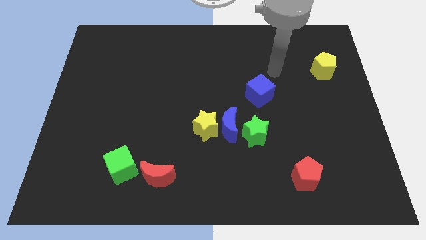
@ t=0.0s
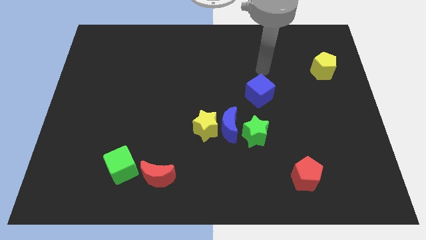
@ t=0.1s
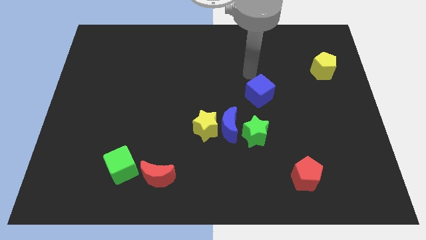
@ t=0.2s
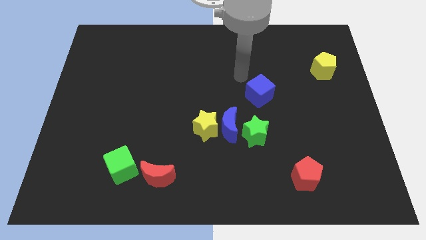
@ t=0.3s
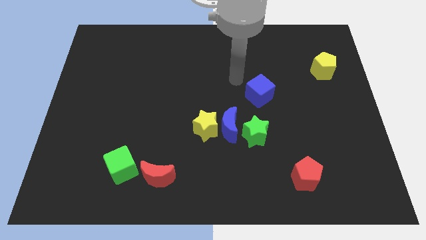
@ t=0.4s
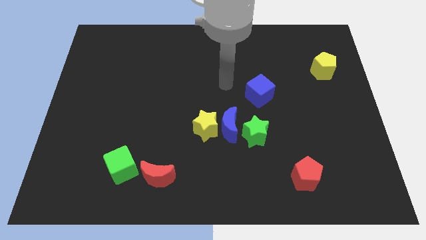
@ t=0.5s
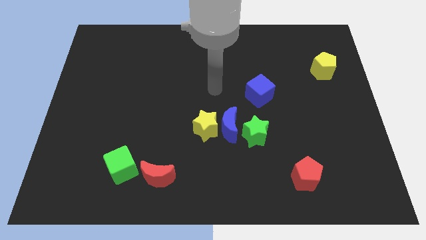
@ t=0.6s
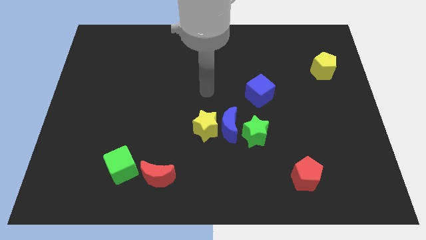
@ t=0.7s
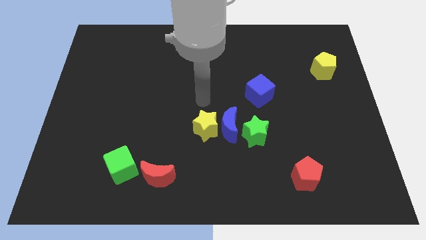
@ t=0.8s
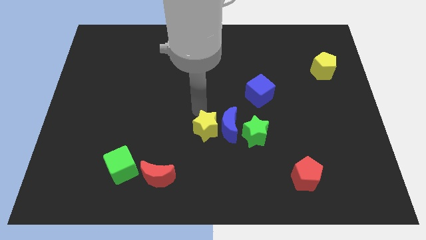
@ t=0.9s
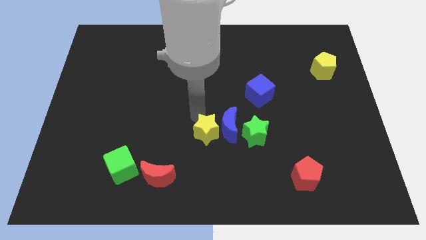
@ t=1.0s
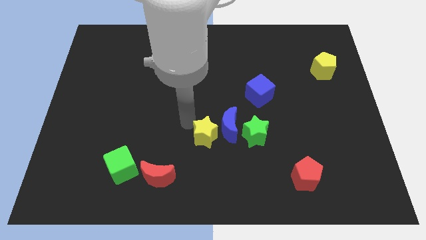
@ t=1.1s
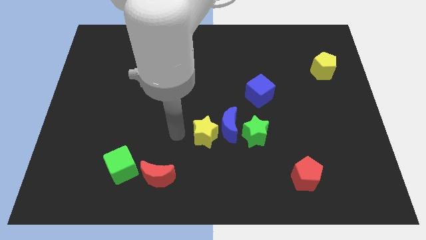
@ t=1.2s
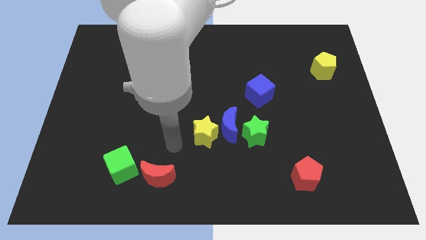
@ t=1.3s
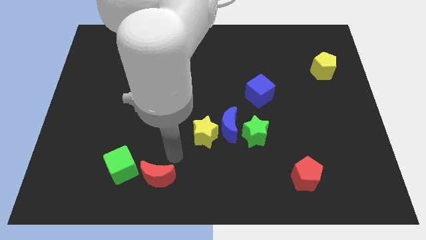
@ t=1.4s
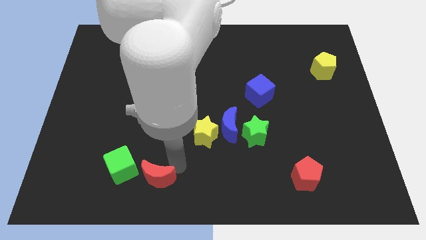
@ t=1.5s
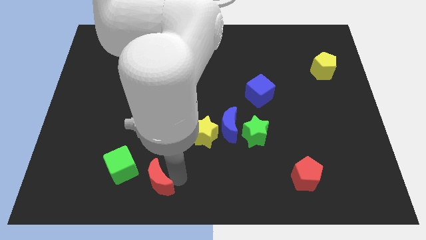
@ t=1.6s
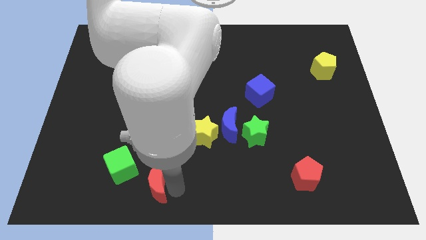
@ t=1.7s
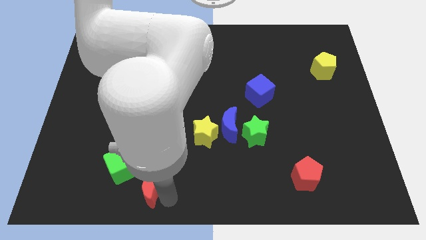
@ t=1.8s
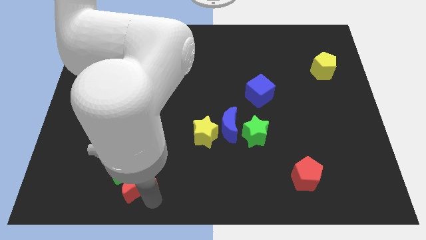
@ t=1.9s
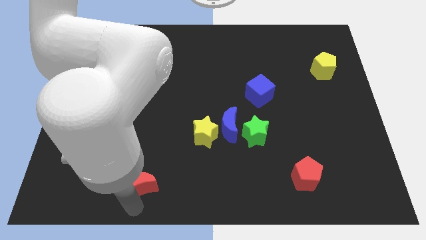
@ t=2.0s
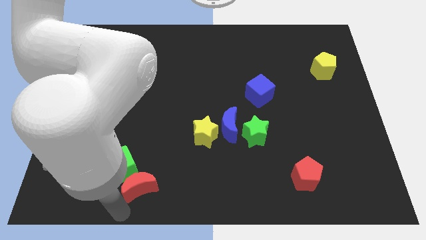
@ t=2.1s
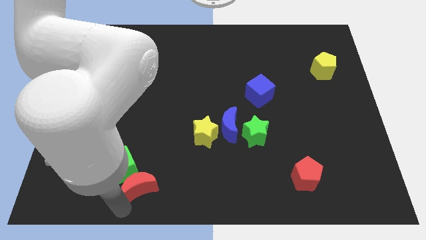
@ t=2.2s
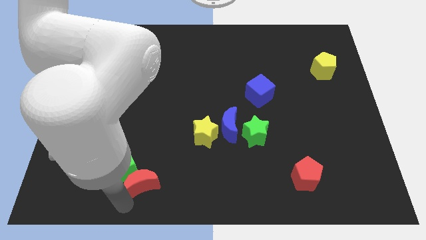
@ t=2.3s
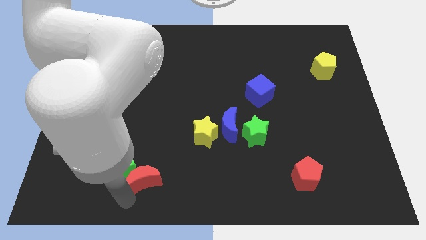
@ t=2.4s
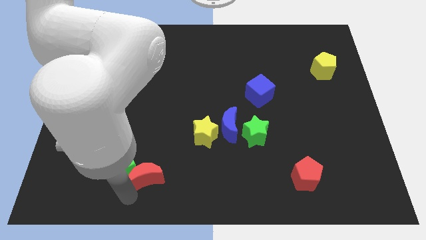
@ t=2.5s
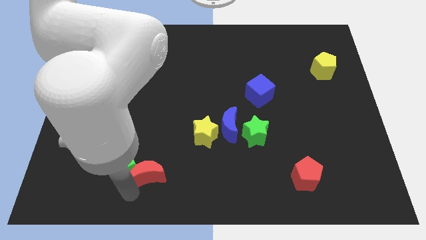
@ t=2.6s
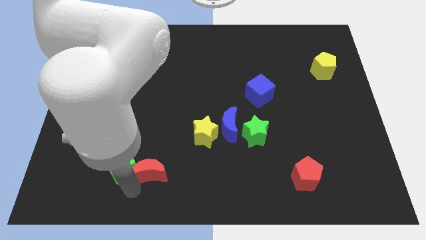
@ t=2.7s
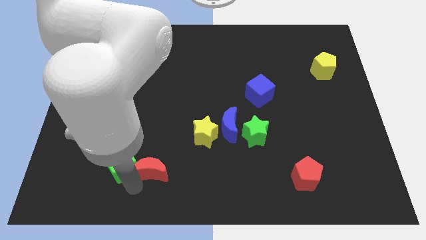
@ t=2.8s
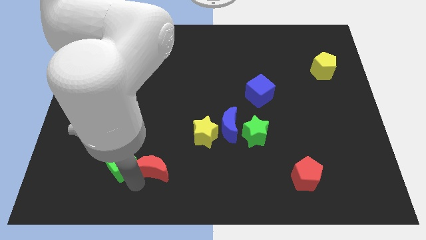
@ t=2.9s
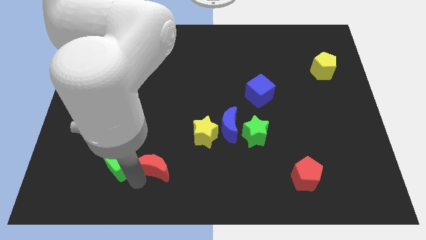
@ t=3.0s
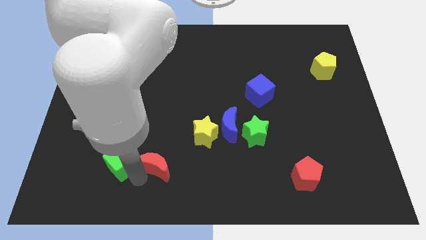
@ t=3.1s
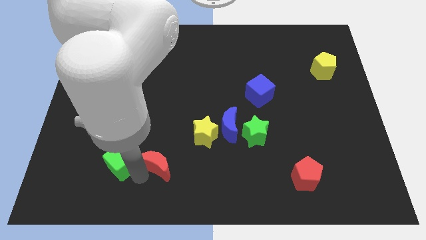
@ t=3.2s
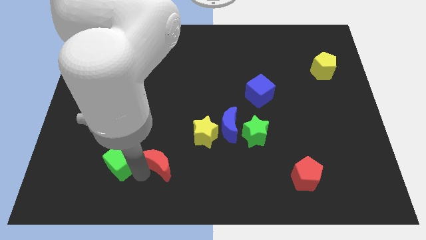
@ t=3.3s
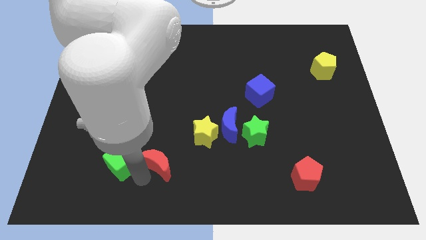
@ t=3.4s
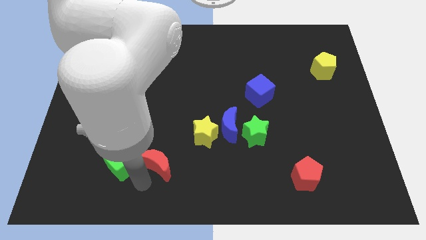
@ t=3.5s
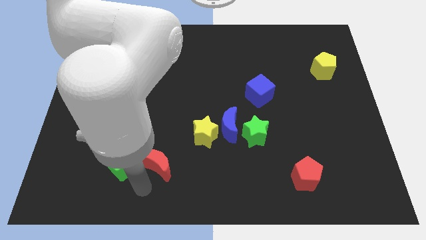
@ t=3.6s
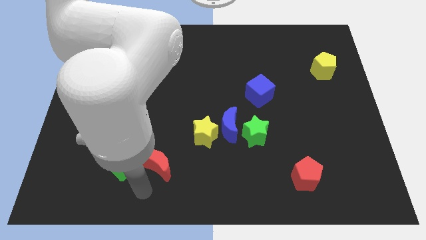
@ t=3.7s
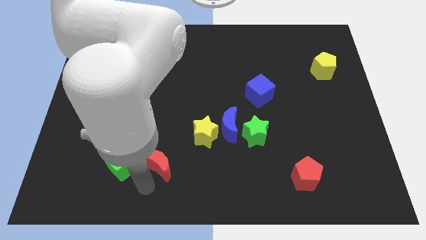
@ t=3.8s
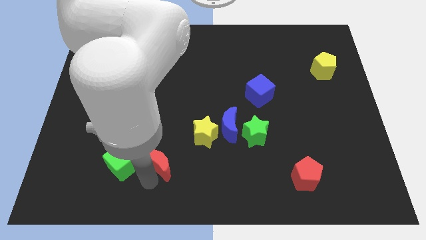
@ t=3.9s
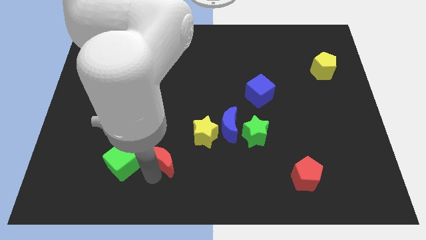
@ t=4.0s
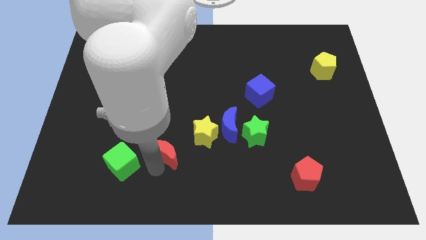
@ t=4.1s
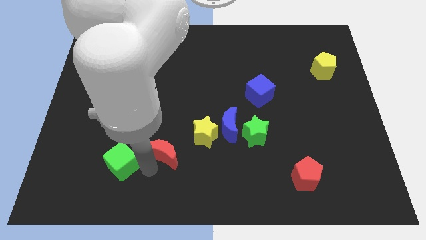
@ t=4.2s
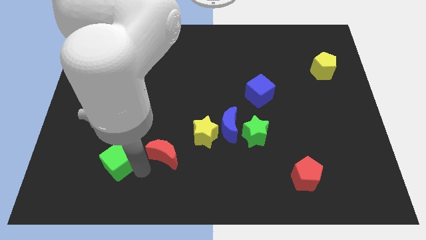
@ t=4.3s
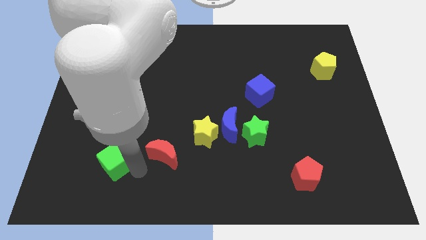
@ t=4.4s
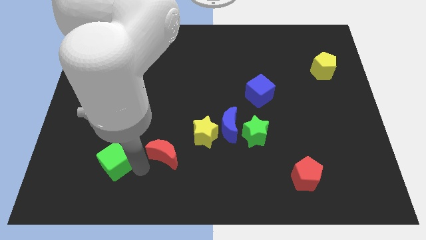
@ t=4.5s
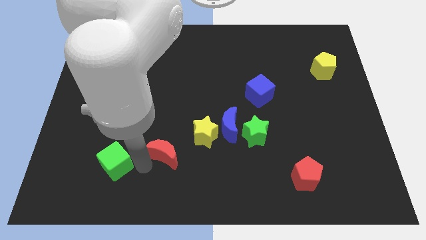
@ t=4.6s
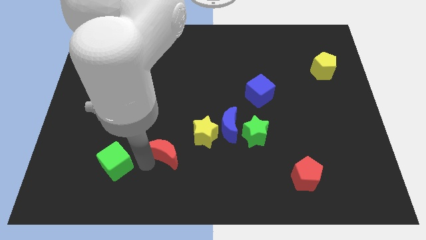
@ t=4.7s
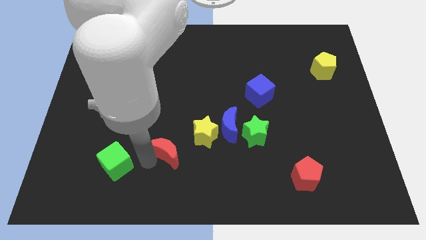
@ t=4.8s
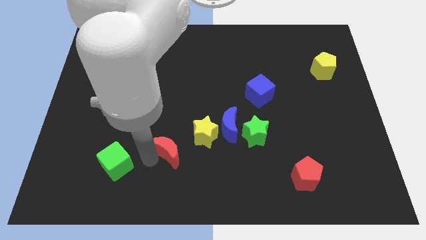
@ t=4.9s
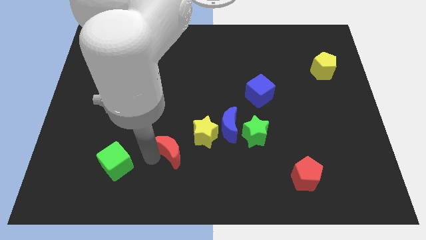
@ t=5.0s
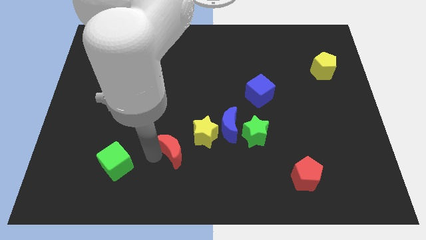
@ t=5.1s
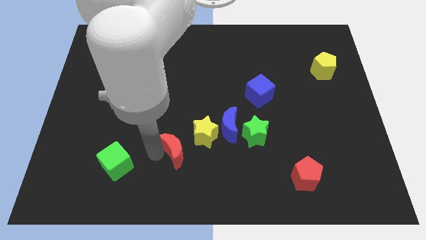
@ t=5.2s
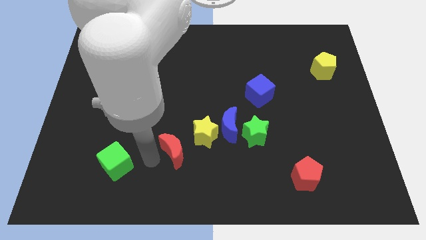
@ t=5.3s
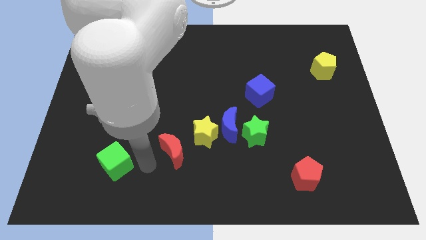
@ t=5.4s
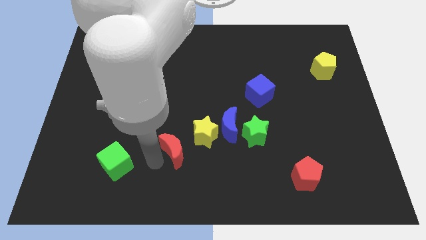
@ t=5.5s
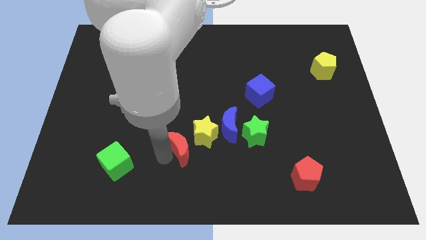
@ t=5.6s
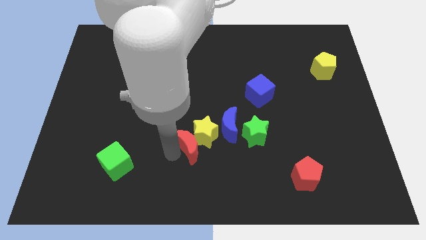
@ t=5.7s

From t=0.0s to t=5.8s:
move the red moon towards the yellow star

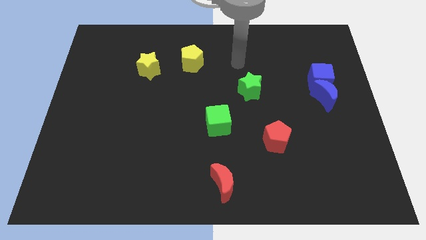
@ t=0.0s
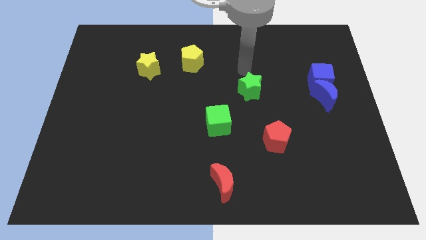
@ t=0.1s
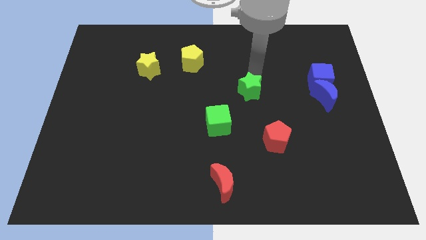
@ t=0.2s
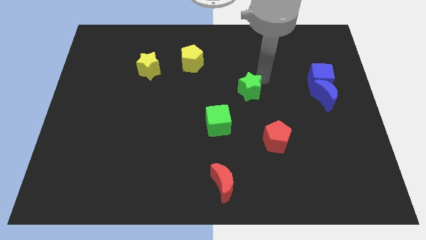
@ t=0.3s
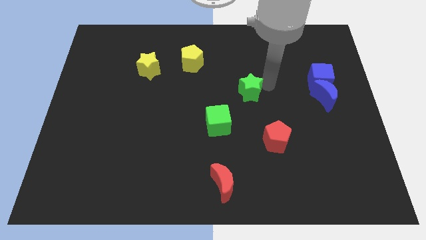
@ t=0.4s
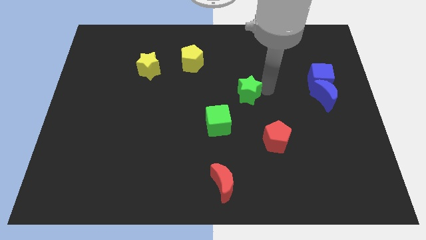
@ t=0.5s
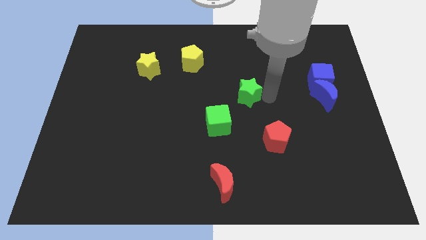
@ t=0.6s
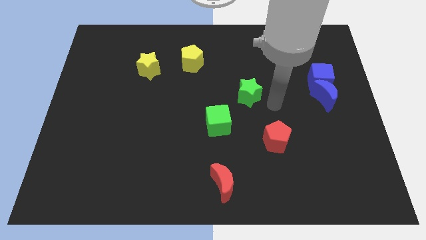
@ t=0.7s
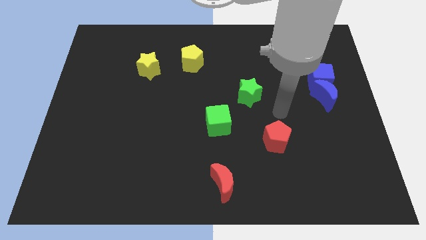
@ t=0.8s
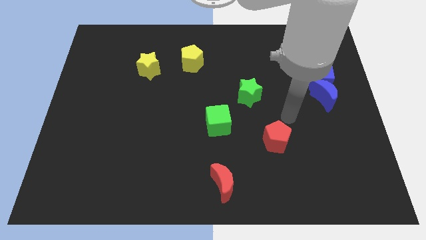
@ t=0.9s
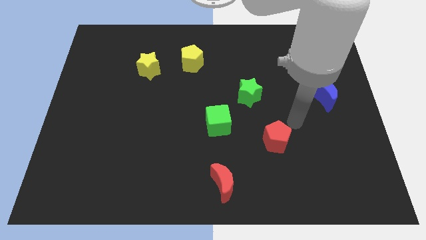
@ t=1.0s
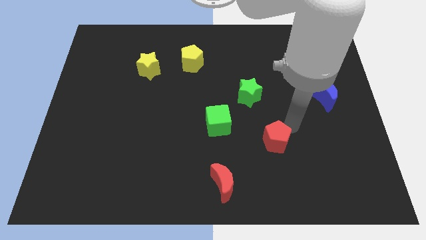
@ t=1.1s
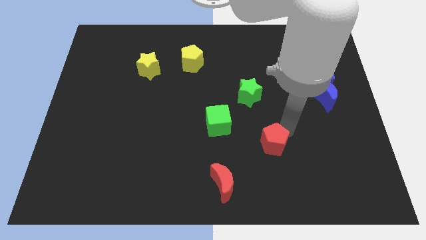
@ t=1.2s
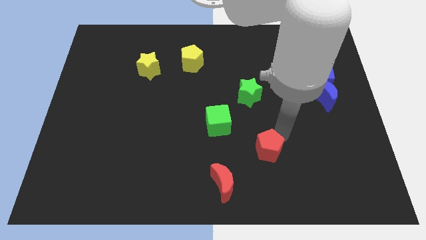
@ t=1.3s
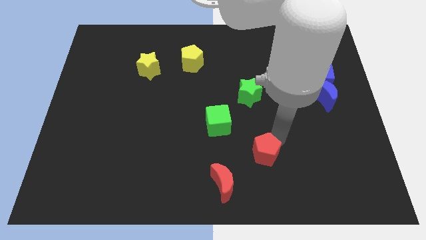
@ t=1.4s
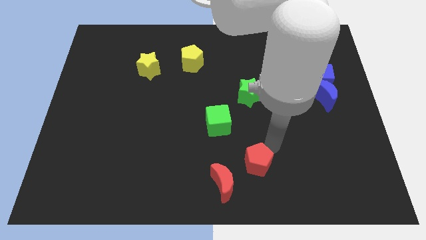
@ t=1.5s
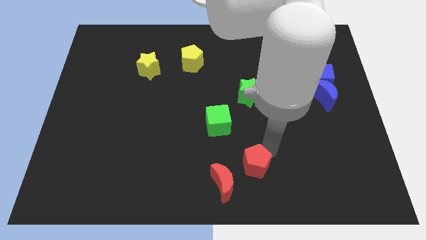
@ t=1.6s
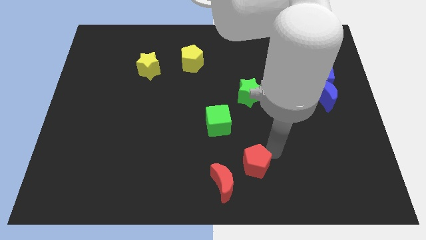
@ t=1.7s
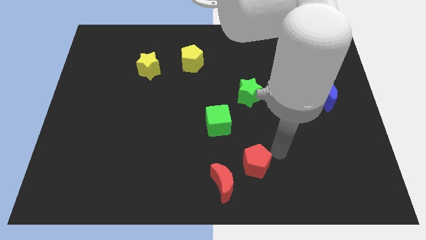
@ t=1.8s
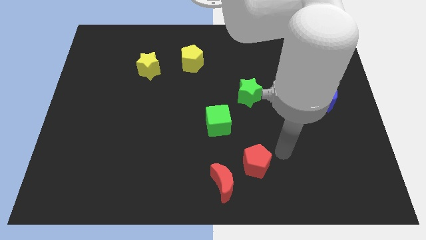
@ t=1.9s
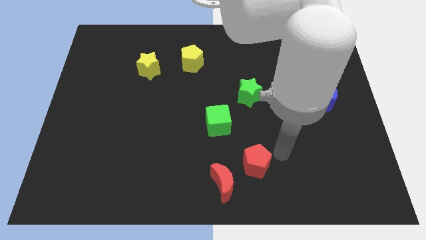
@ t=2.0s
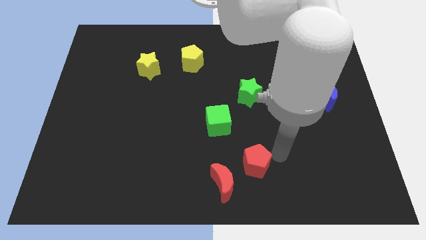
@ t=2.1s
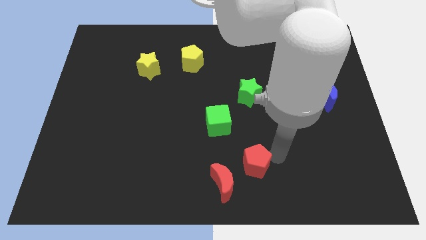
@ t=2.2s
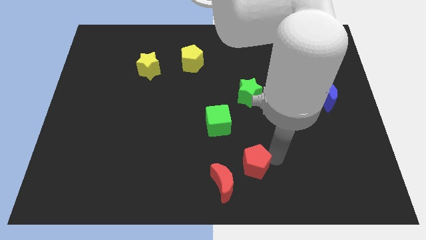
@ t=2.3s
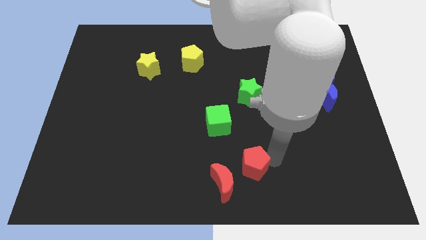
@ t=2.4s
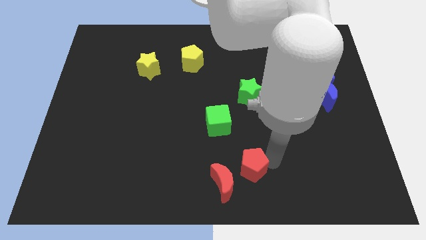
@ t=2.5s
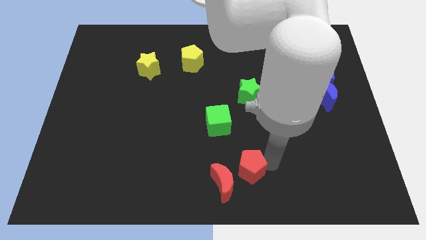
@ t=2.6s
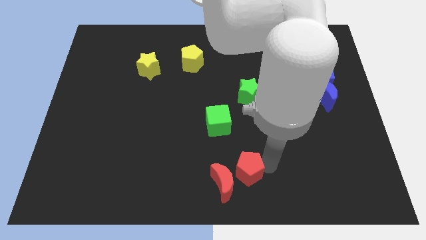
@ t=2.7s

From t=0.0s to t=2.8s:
move the red pentagon towards the red moon
